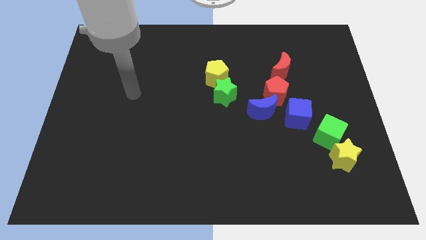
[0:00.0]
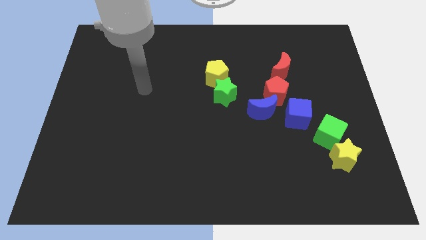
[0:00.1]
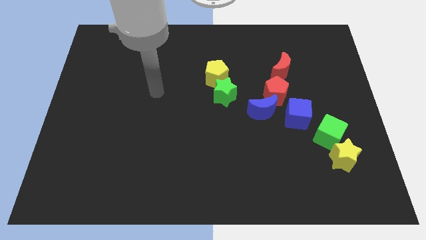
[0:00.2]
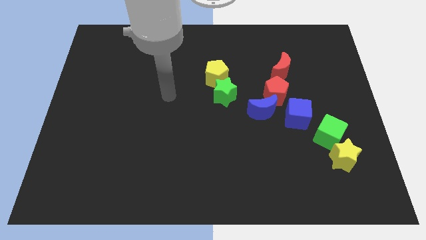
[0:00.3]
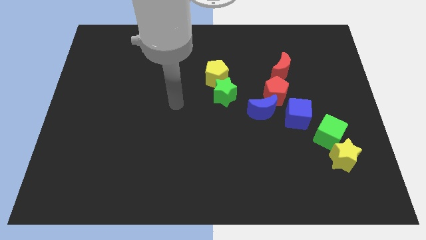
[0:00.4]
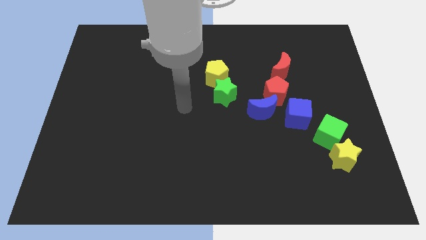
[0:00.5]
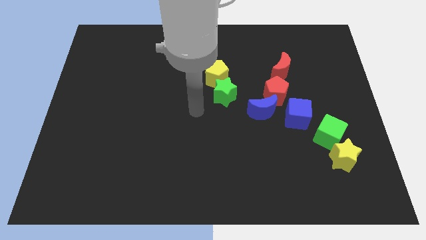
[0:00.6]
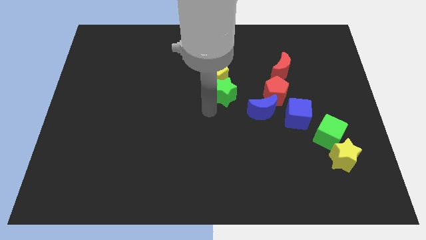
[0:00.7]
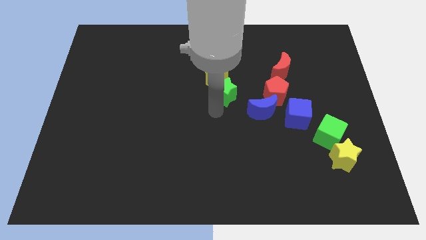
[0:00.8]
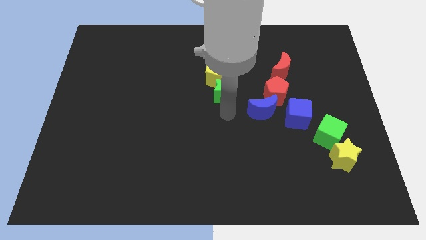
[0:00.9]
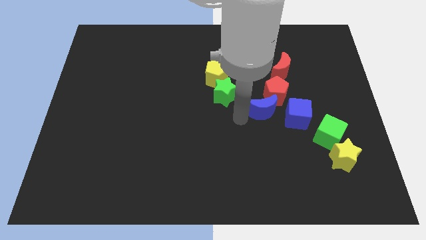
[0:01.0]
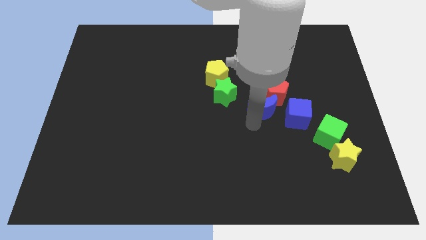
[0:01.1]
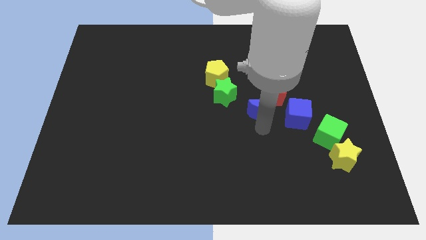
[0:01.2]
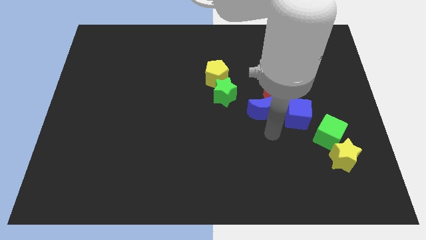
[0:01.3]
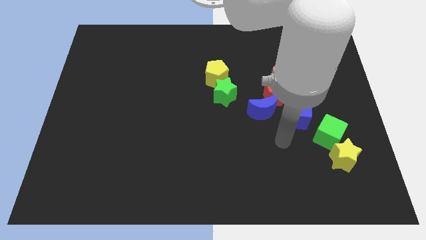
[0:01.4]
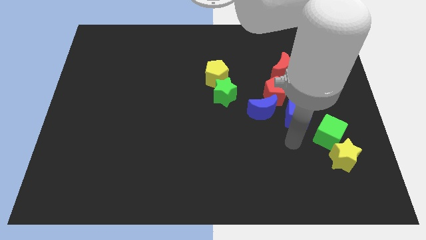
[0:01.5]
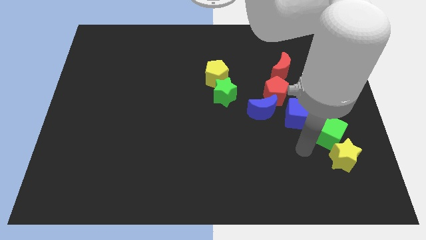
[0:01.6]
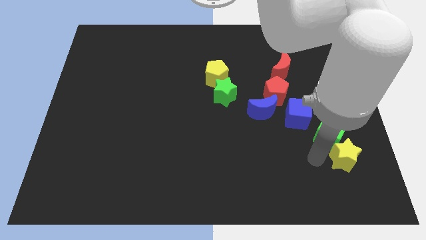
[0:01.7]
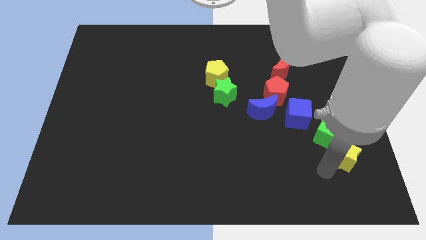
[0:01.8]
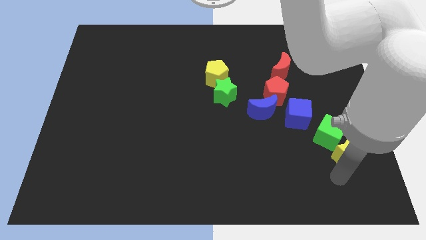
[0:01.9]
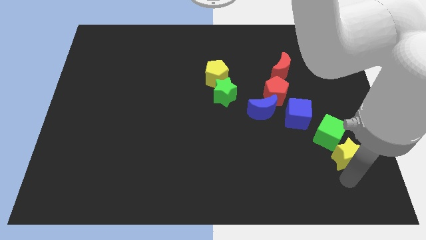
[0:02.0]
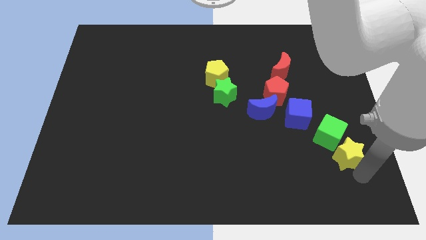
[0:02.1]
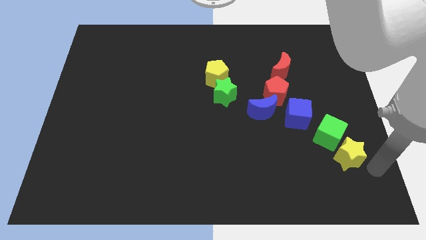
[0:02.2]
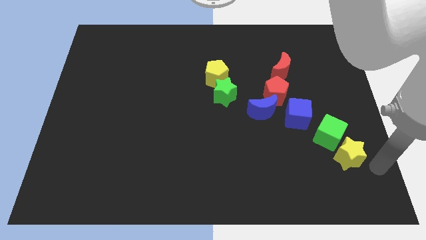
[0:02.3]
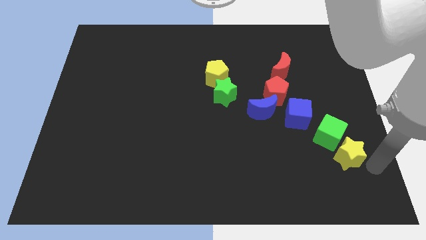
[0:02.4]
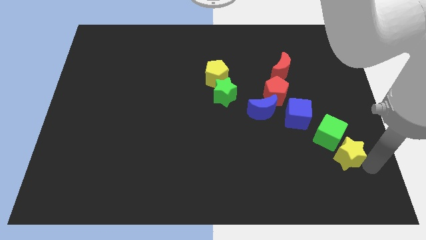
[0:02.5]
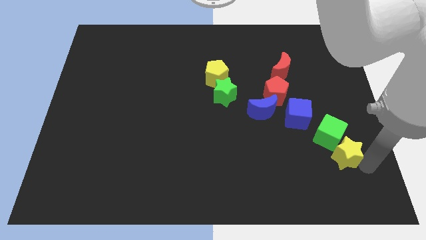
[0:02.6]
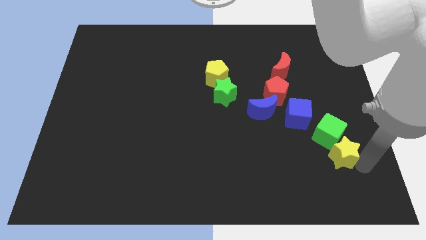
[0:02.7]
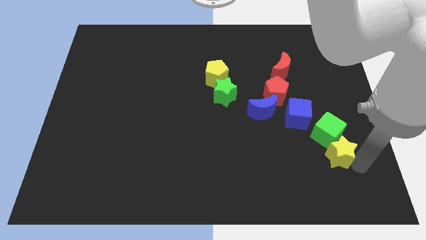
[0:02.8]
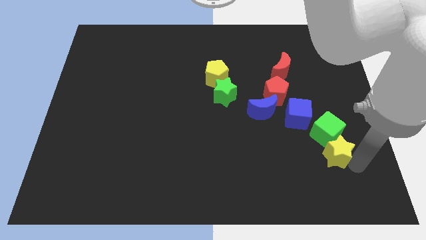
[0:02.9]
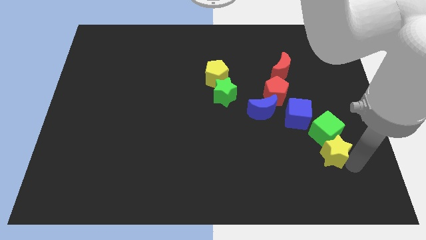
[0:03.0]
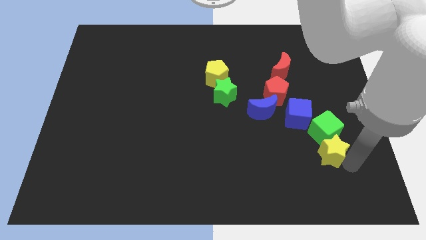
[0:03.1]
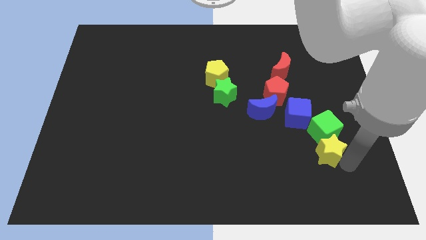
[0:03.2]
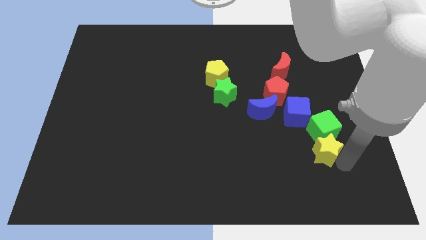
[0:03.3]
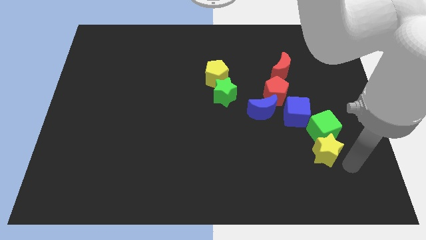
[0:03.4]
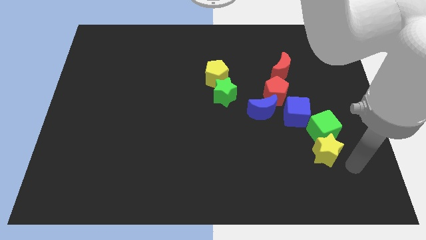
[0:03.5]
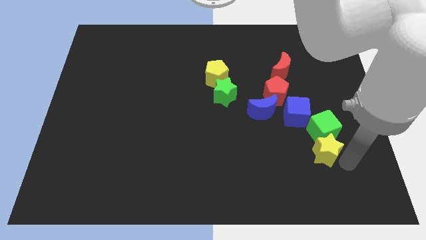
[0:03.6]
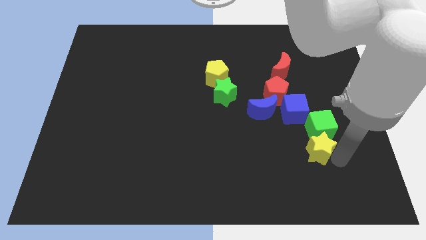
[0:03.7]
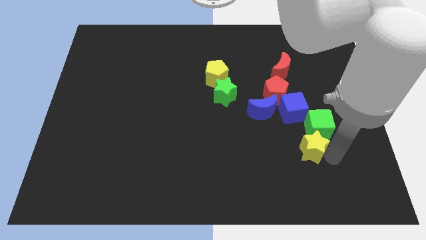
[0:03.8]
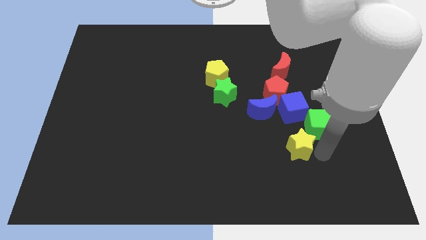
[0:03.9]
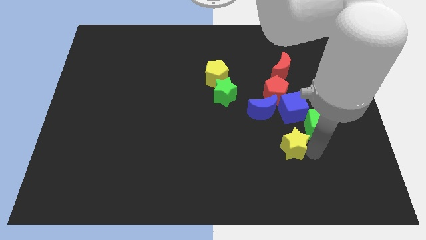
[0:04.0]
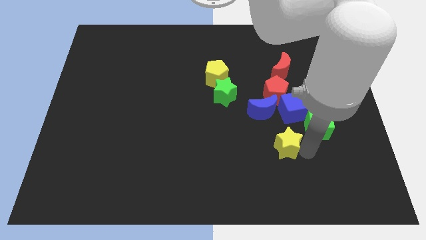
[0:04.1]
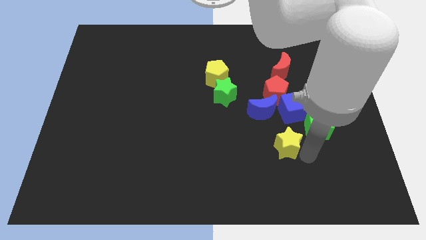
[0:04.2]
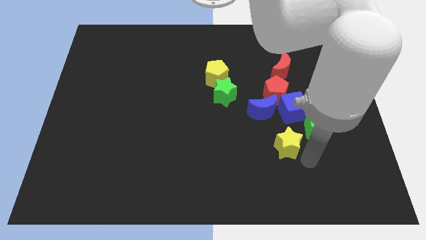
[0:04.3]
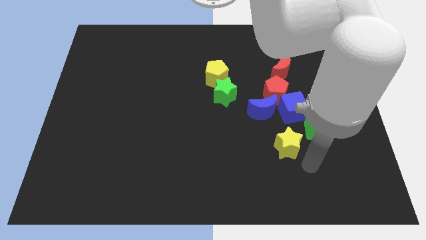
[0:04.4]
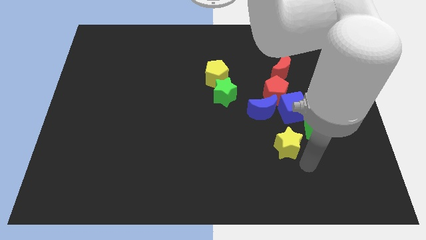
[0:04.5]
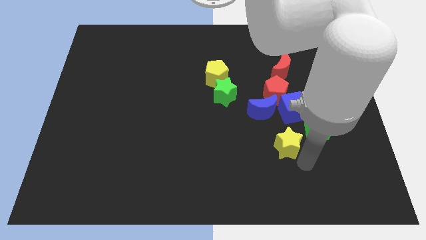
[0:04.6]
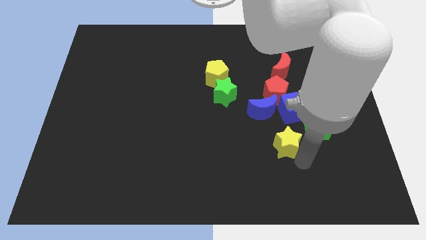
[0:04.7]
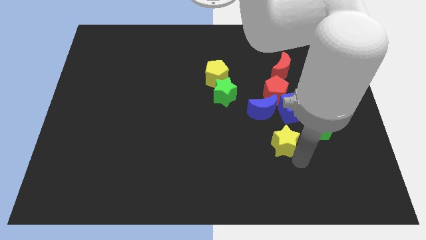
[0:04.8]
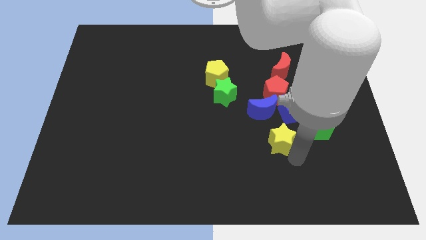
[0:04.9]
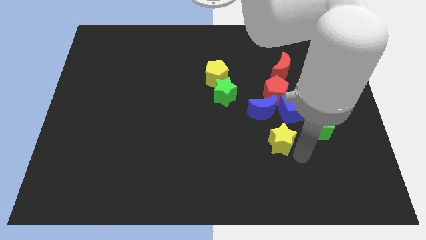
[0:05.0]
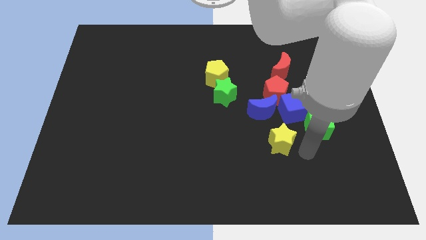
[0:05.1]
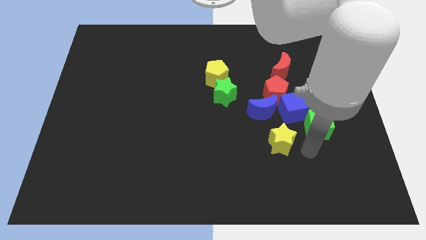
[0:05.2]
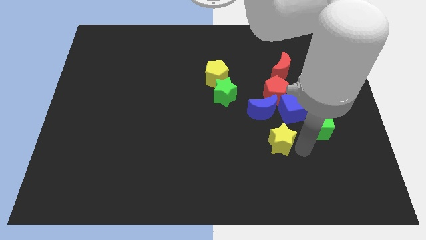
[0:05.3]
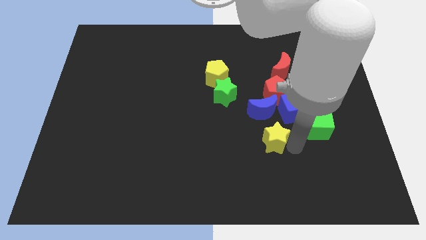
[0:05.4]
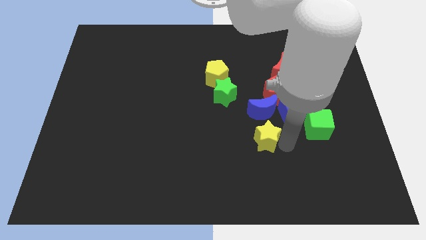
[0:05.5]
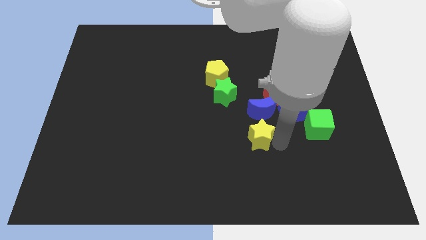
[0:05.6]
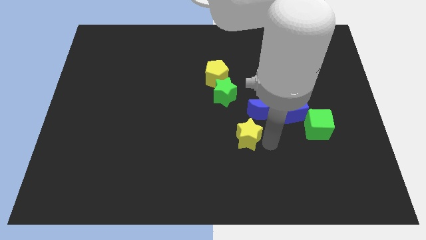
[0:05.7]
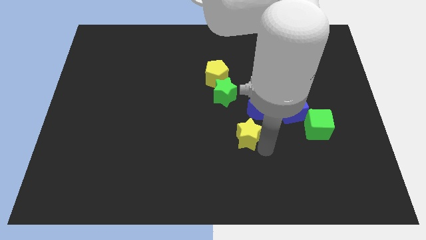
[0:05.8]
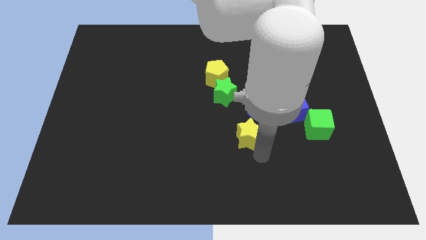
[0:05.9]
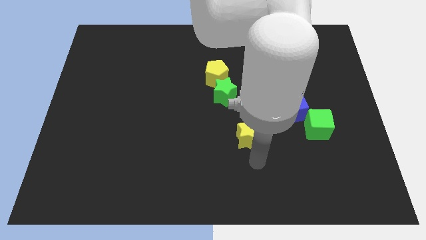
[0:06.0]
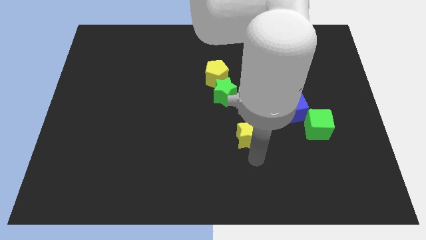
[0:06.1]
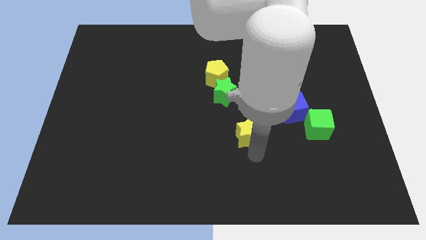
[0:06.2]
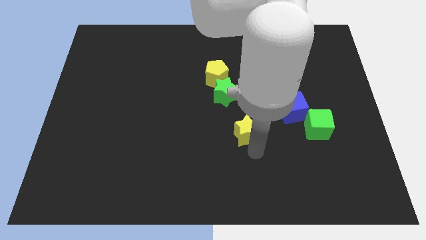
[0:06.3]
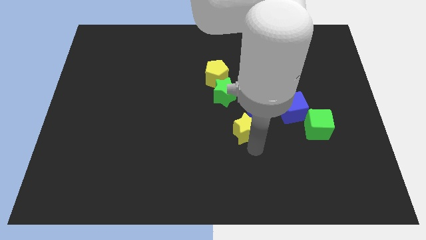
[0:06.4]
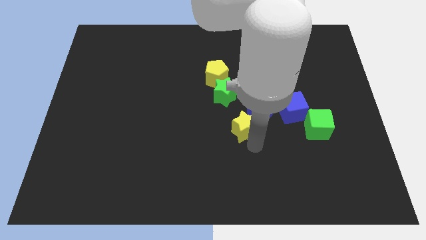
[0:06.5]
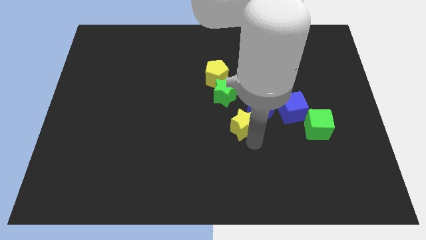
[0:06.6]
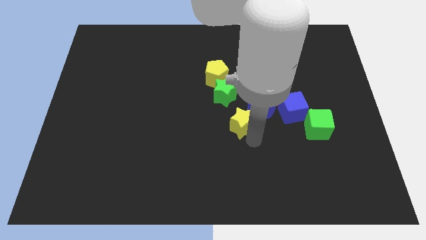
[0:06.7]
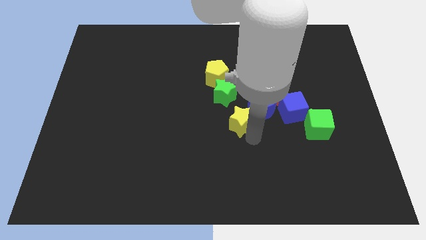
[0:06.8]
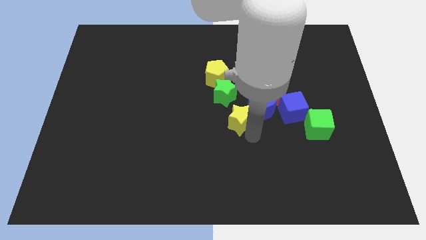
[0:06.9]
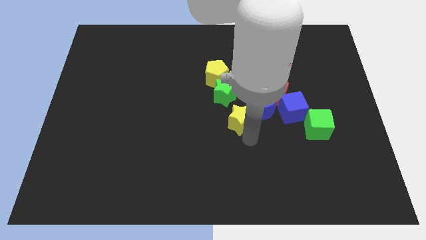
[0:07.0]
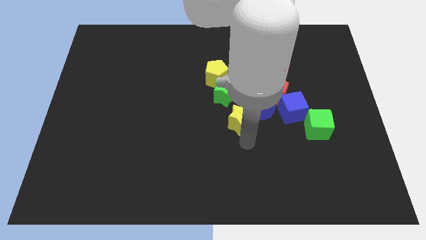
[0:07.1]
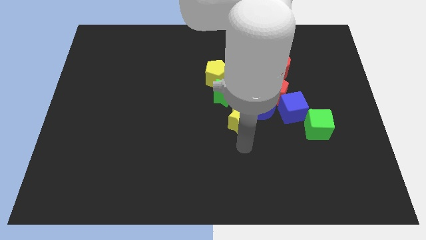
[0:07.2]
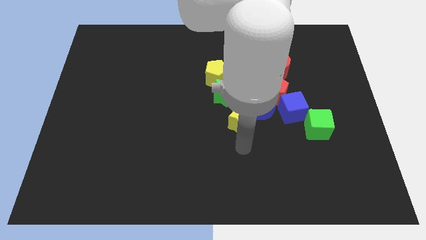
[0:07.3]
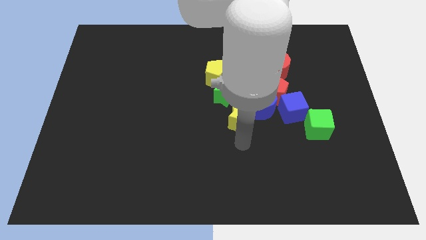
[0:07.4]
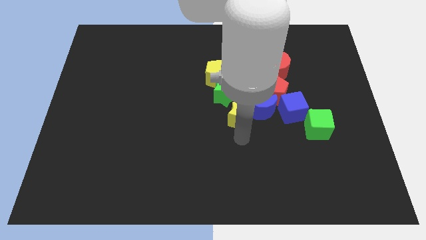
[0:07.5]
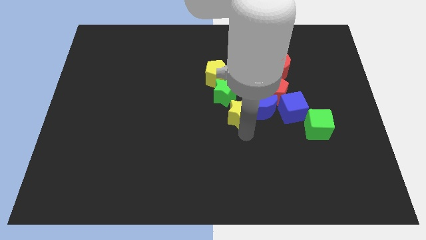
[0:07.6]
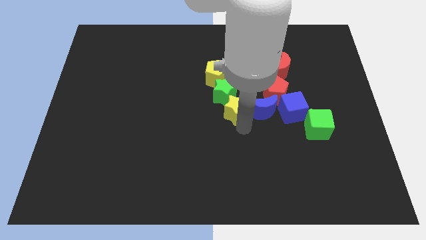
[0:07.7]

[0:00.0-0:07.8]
move the yellow star next to the green star
